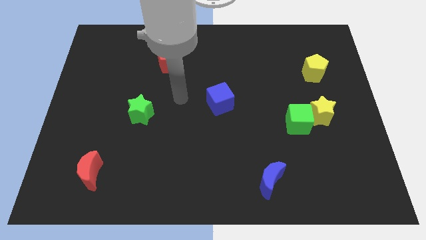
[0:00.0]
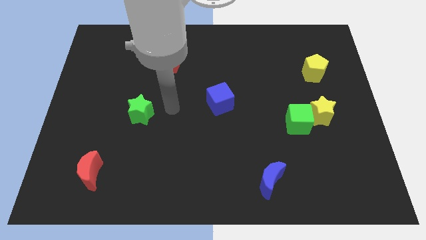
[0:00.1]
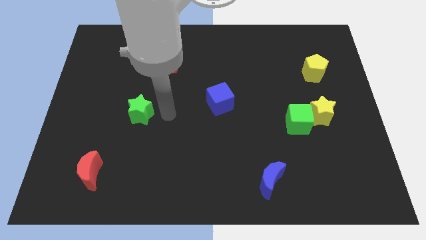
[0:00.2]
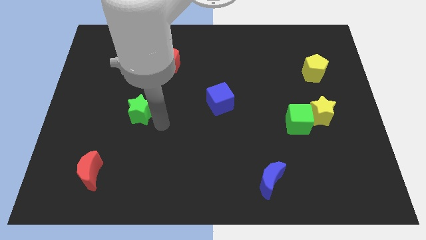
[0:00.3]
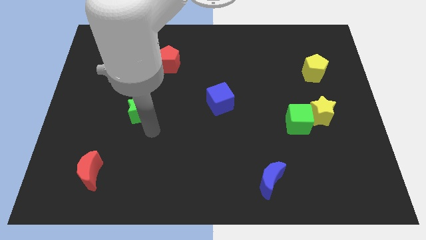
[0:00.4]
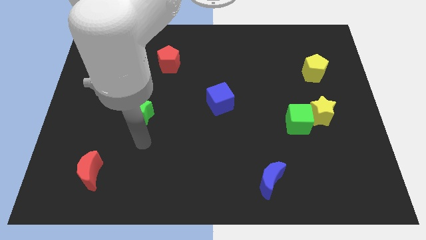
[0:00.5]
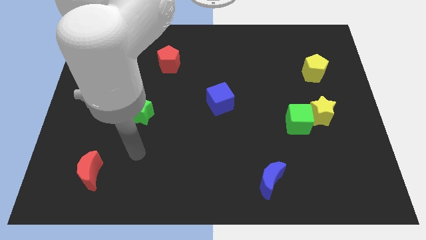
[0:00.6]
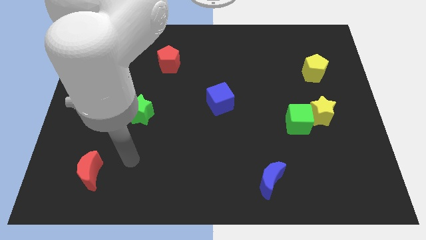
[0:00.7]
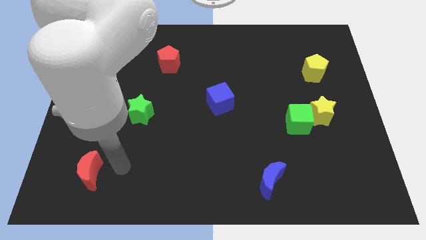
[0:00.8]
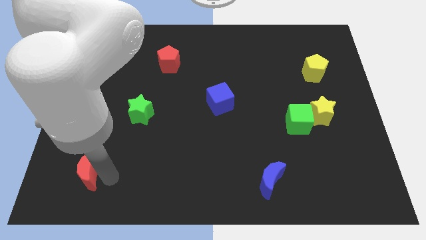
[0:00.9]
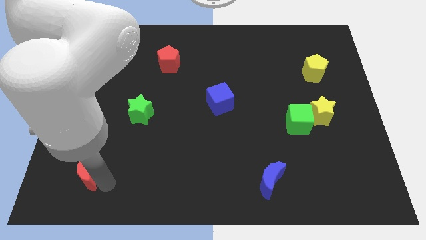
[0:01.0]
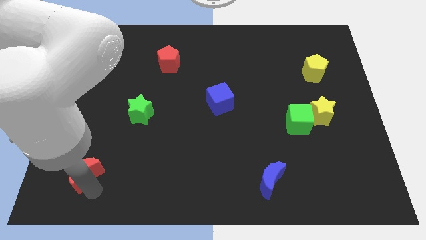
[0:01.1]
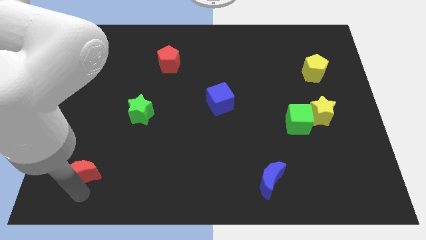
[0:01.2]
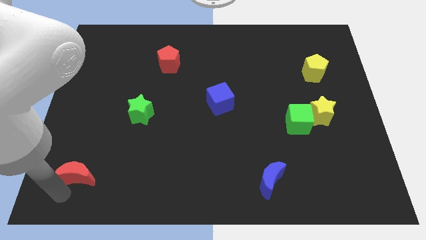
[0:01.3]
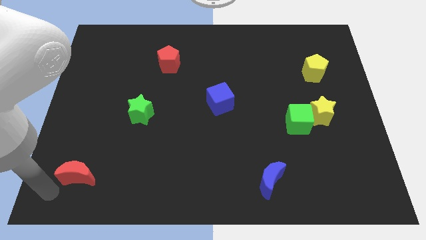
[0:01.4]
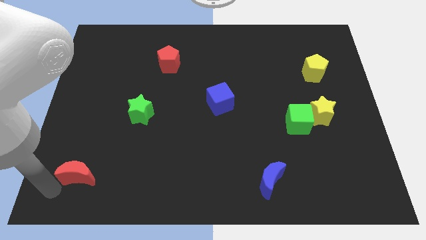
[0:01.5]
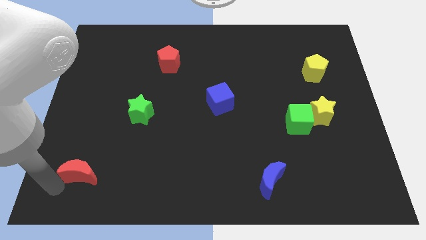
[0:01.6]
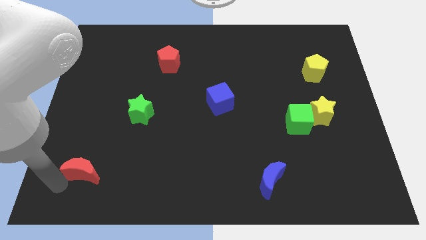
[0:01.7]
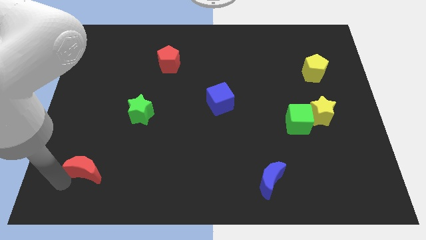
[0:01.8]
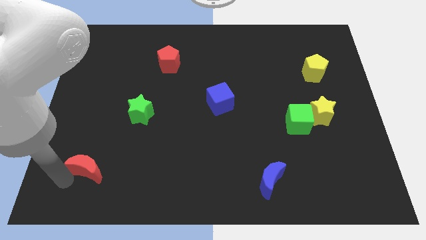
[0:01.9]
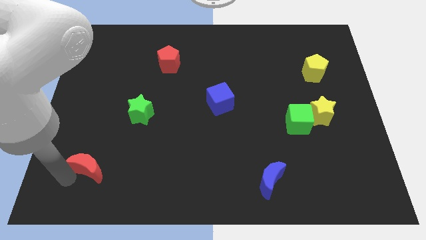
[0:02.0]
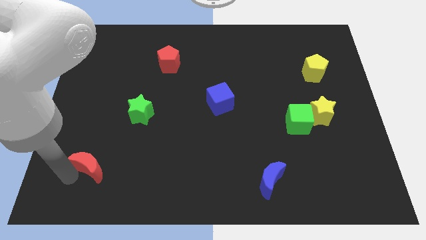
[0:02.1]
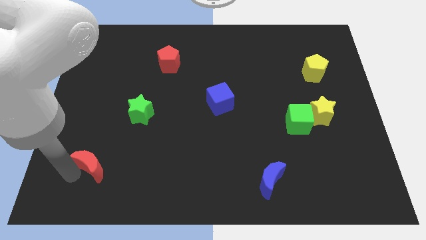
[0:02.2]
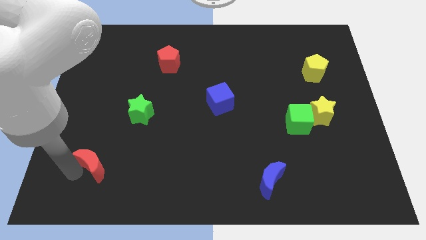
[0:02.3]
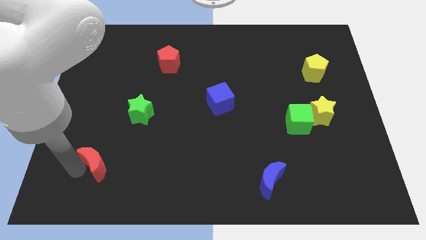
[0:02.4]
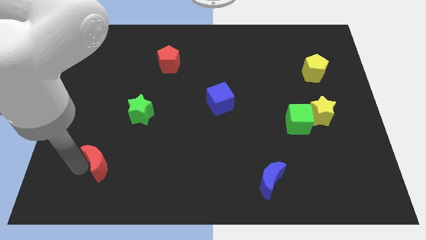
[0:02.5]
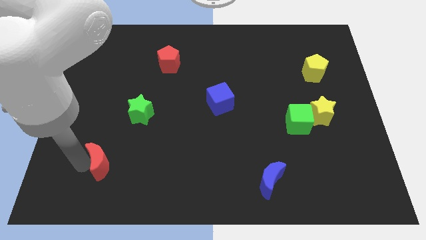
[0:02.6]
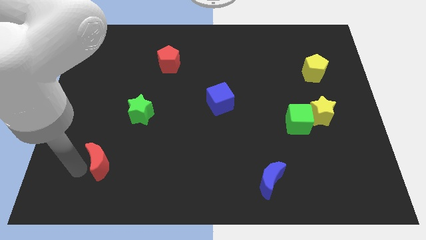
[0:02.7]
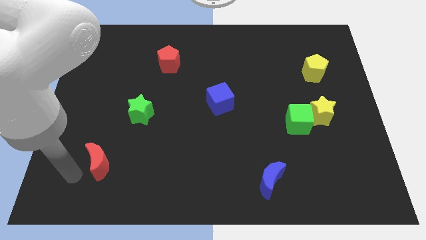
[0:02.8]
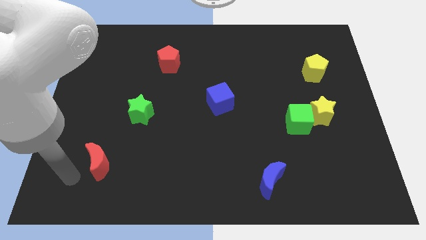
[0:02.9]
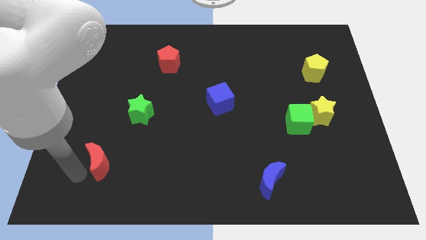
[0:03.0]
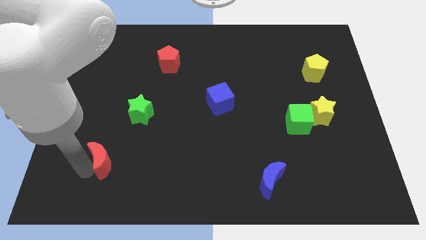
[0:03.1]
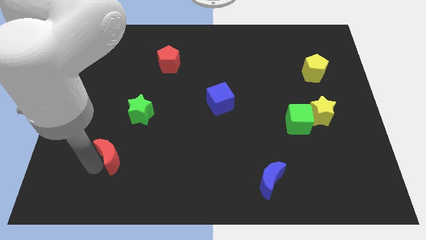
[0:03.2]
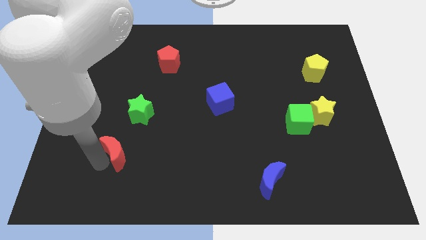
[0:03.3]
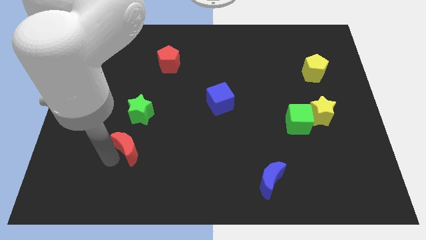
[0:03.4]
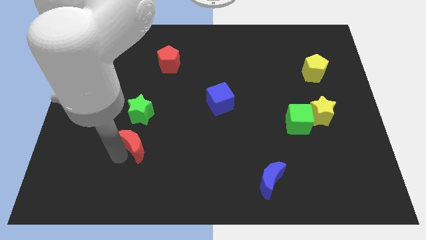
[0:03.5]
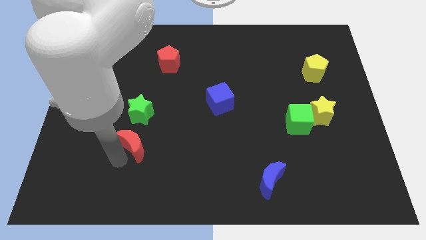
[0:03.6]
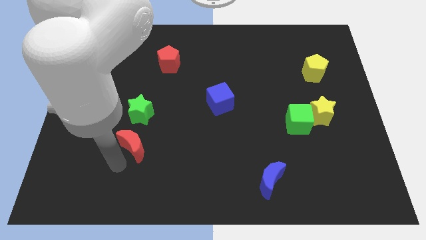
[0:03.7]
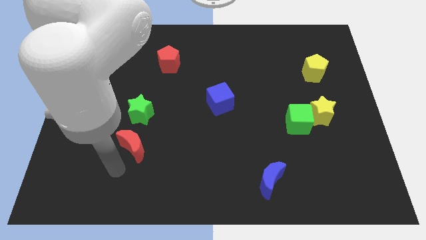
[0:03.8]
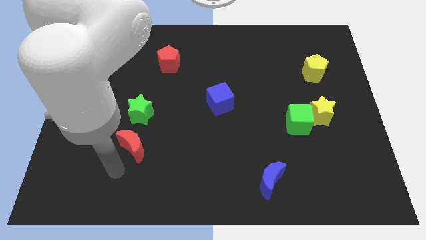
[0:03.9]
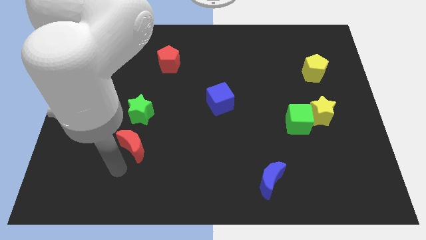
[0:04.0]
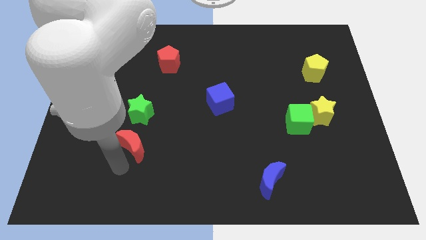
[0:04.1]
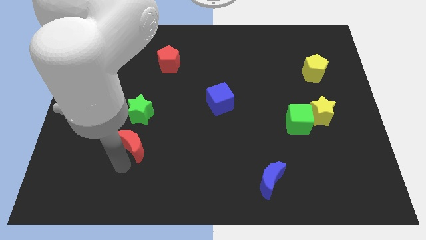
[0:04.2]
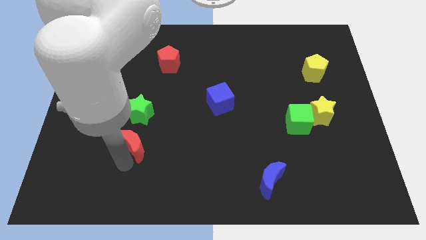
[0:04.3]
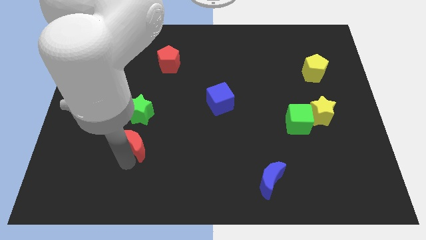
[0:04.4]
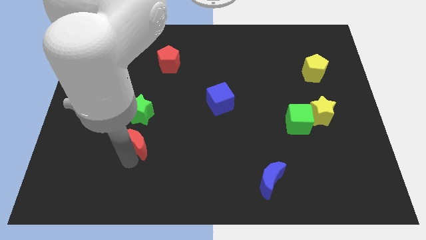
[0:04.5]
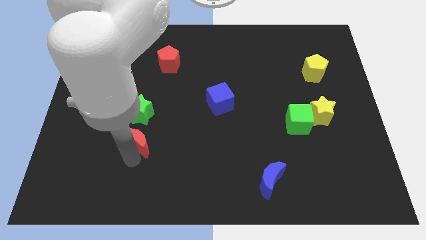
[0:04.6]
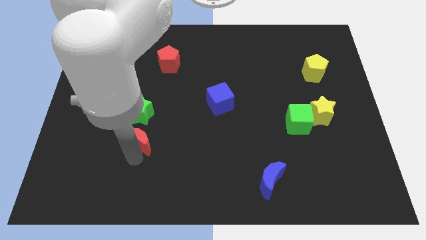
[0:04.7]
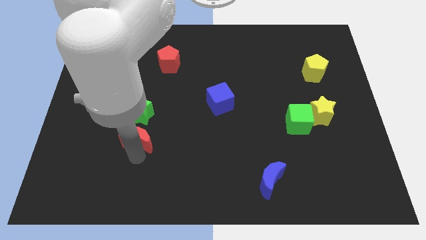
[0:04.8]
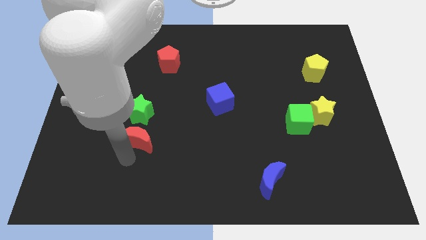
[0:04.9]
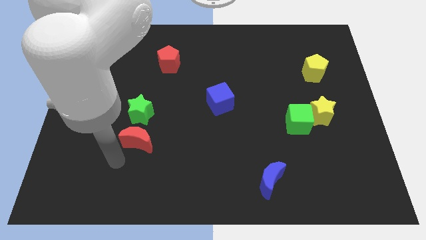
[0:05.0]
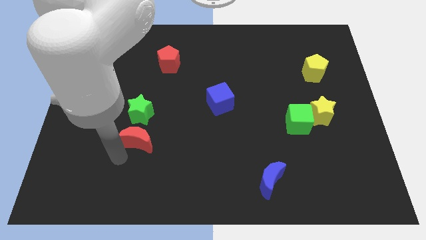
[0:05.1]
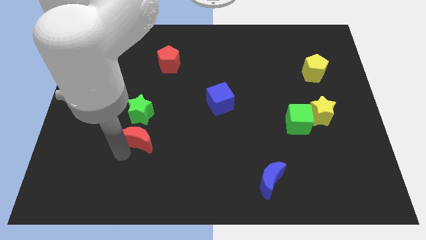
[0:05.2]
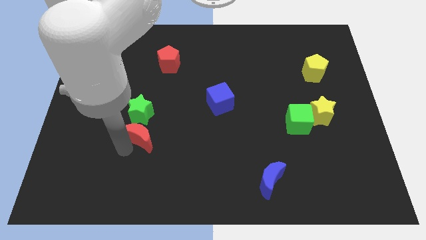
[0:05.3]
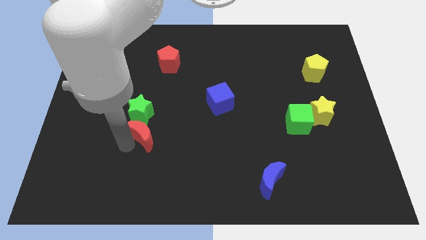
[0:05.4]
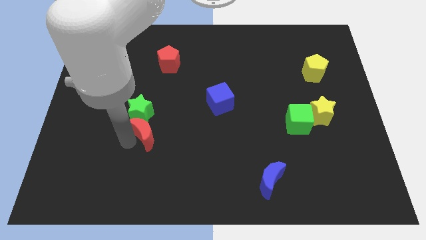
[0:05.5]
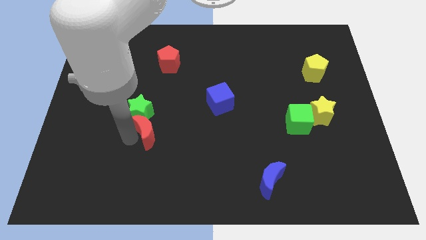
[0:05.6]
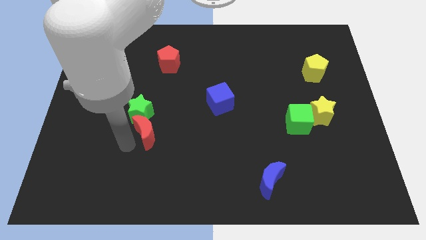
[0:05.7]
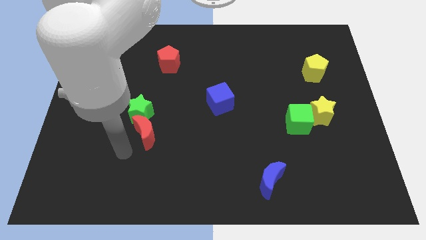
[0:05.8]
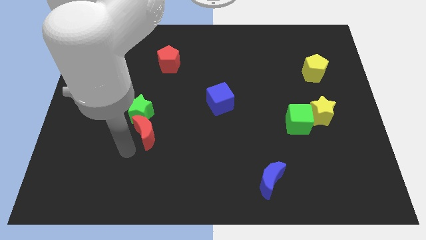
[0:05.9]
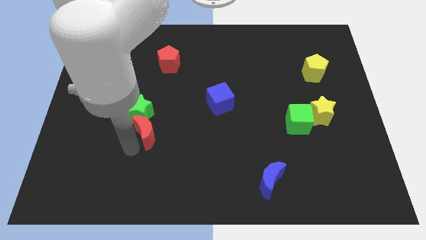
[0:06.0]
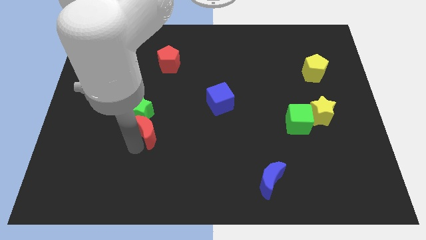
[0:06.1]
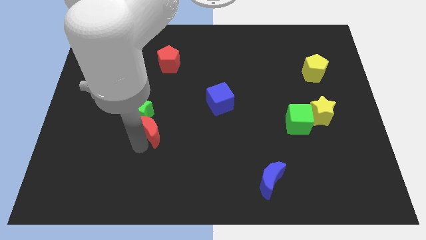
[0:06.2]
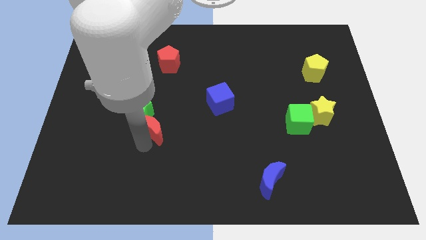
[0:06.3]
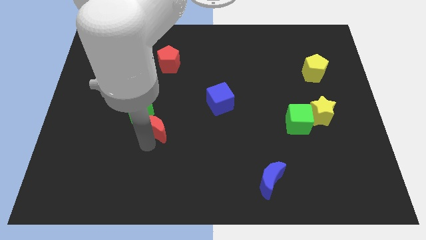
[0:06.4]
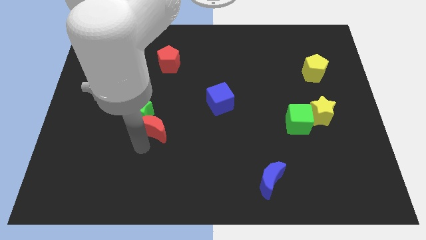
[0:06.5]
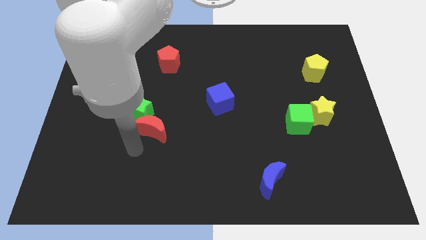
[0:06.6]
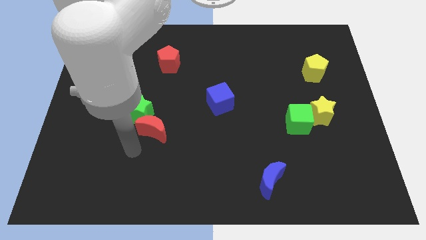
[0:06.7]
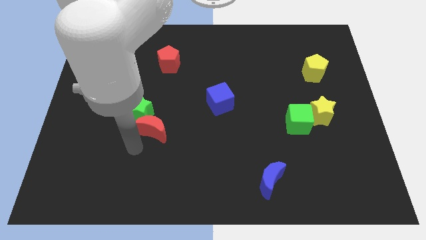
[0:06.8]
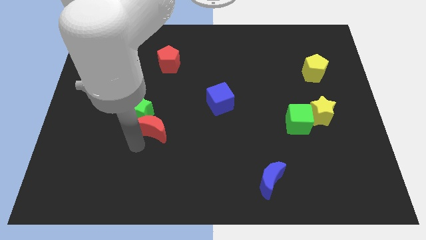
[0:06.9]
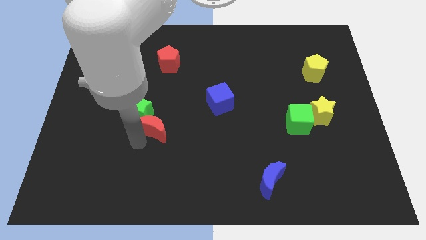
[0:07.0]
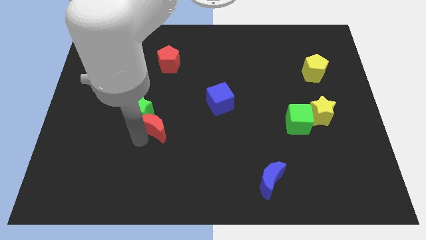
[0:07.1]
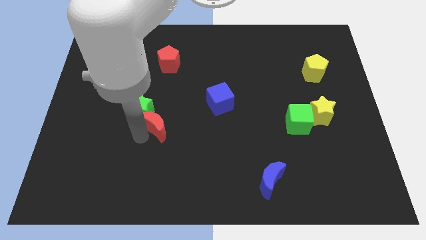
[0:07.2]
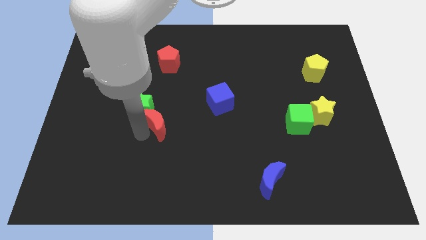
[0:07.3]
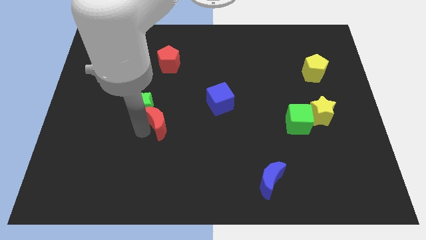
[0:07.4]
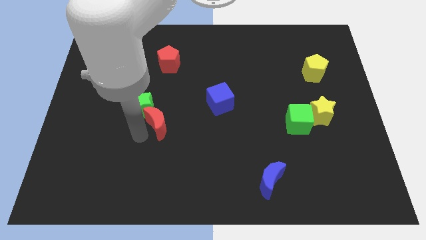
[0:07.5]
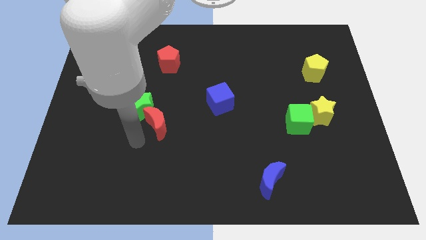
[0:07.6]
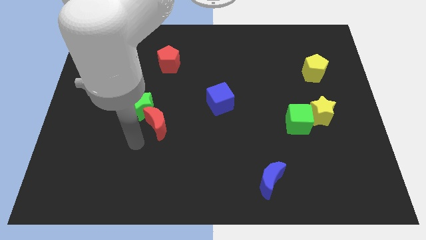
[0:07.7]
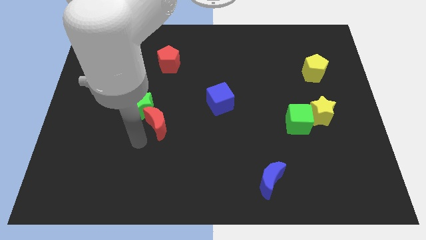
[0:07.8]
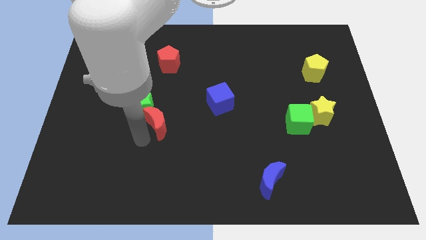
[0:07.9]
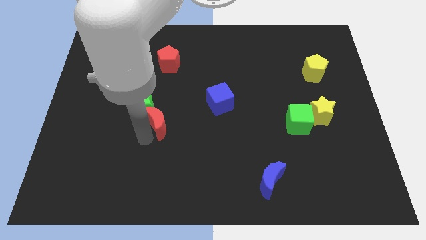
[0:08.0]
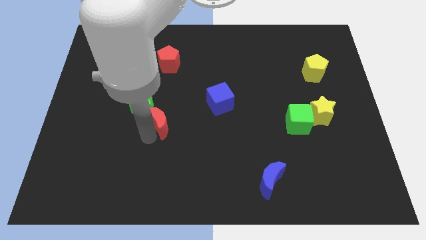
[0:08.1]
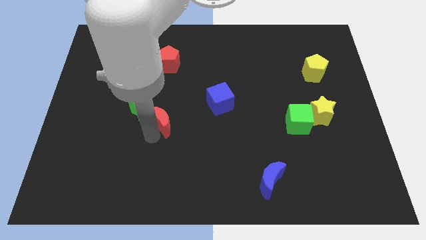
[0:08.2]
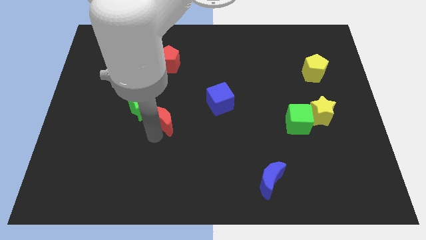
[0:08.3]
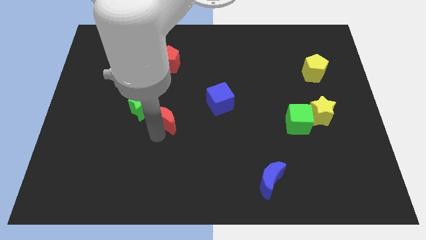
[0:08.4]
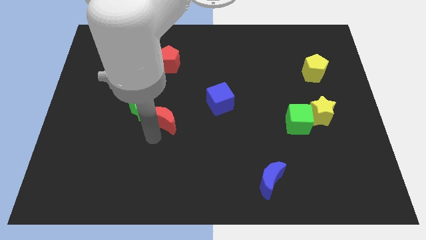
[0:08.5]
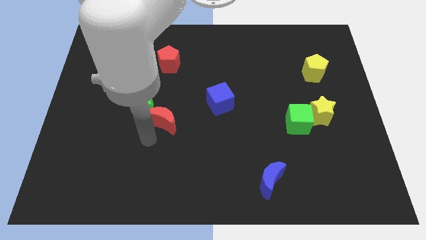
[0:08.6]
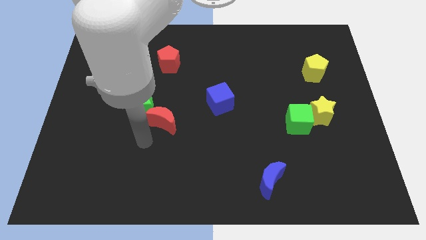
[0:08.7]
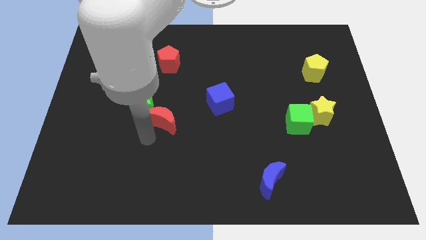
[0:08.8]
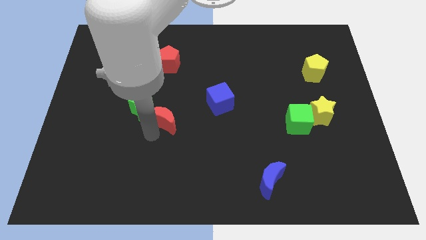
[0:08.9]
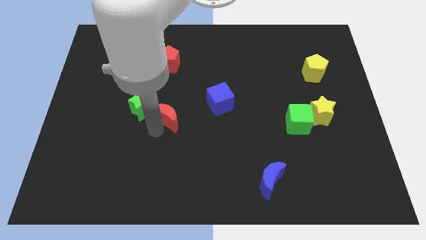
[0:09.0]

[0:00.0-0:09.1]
push the red moon up and right
